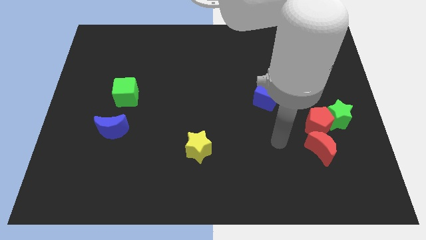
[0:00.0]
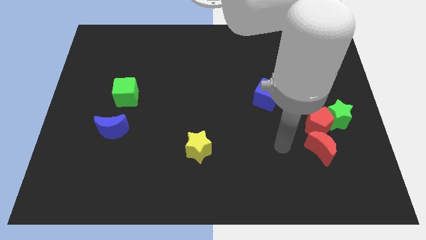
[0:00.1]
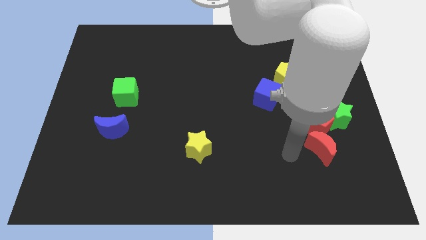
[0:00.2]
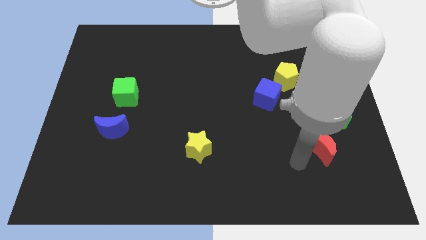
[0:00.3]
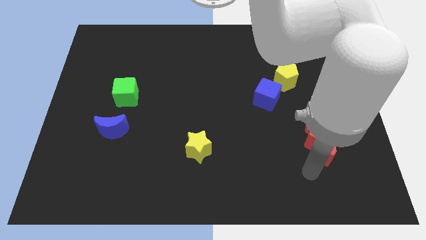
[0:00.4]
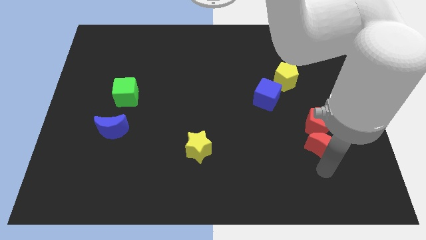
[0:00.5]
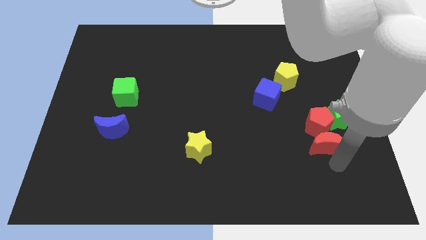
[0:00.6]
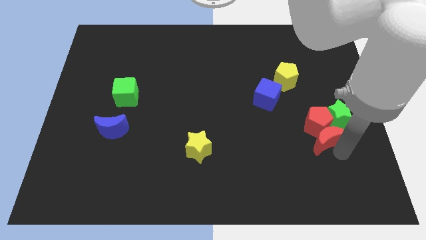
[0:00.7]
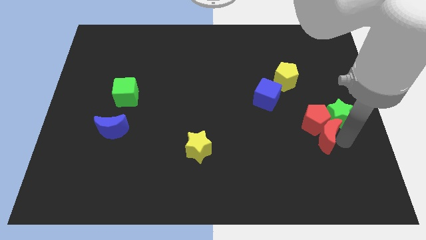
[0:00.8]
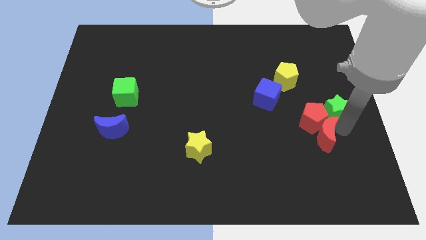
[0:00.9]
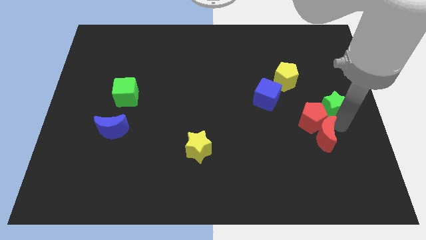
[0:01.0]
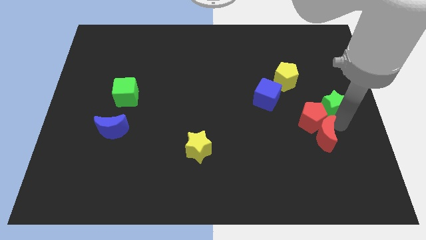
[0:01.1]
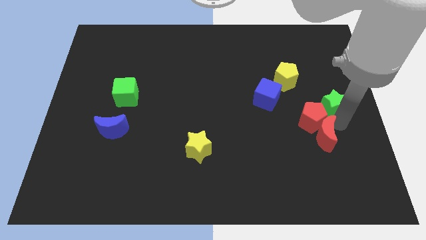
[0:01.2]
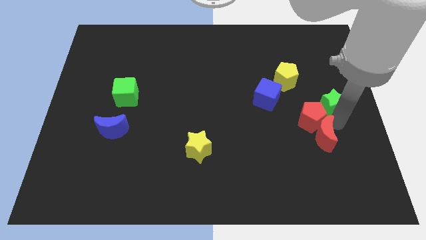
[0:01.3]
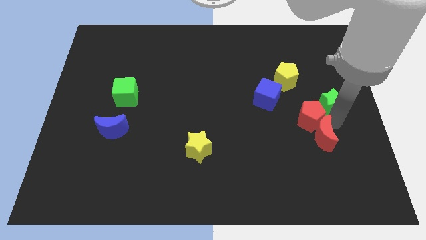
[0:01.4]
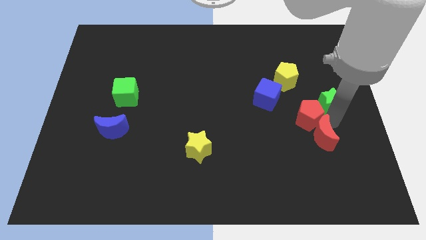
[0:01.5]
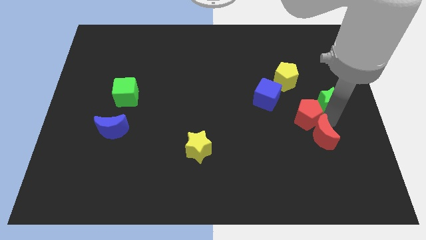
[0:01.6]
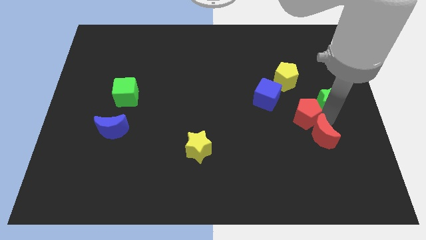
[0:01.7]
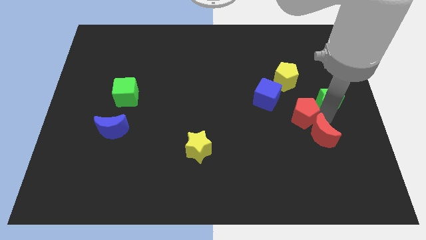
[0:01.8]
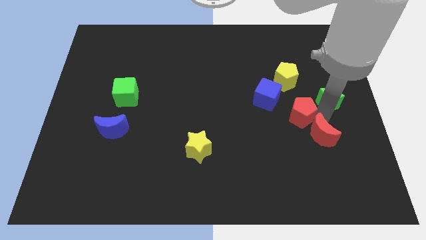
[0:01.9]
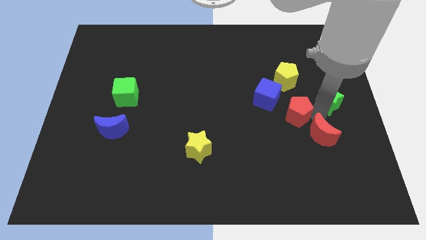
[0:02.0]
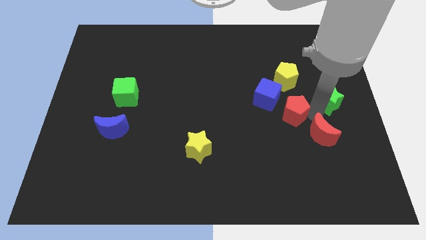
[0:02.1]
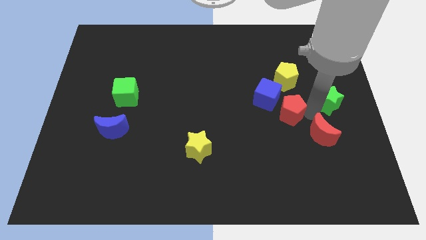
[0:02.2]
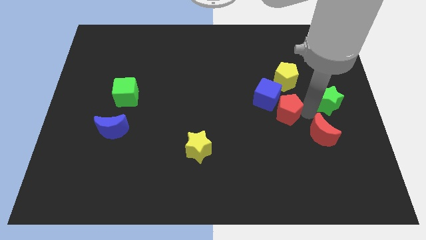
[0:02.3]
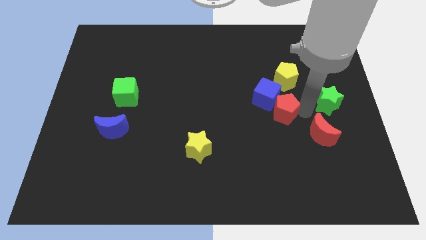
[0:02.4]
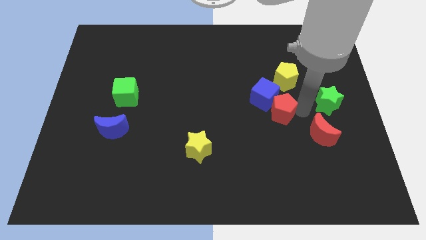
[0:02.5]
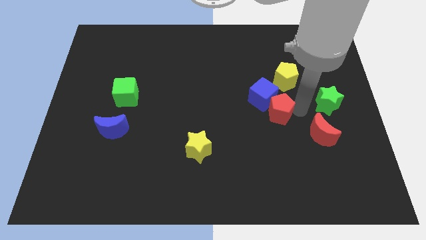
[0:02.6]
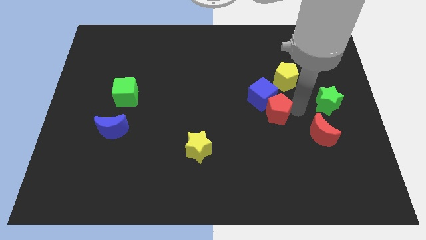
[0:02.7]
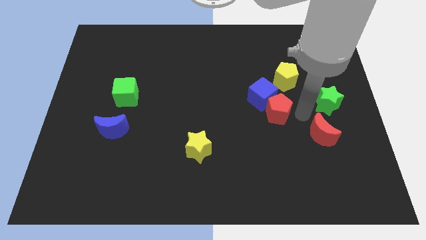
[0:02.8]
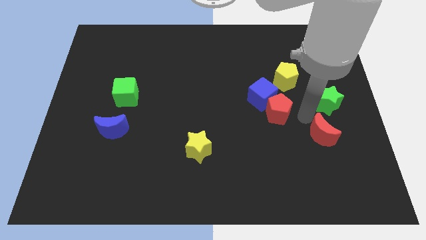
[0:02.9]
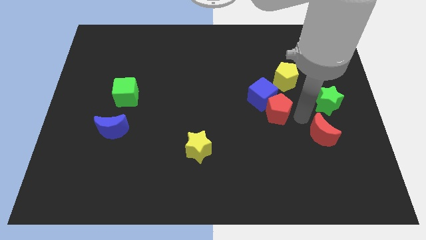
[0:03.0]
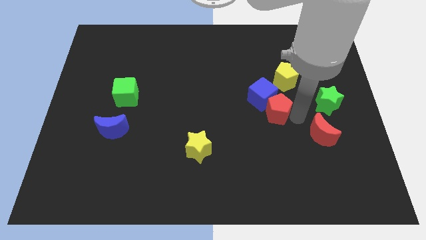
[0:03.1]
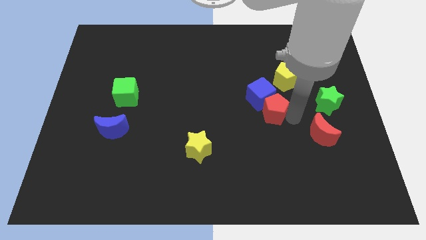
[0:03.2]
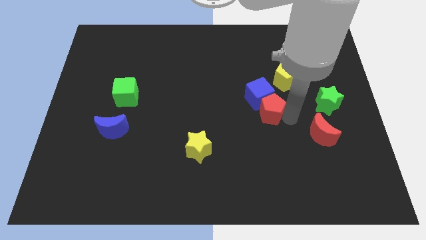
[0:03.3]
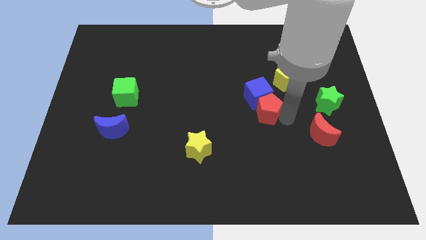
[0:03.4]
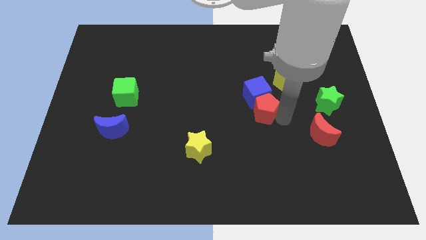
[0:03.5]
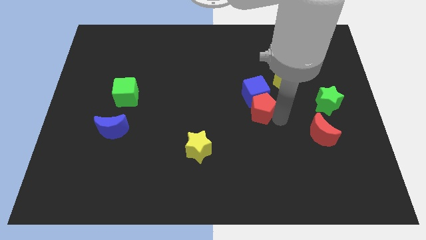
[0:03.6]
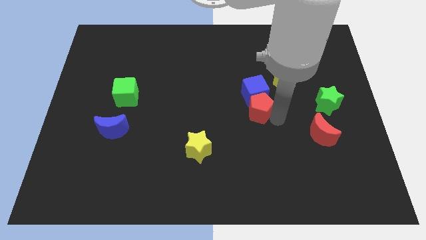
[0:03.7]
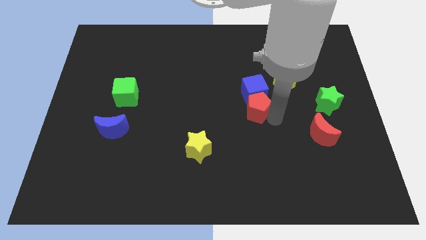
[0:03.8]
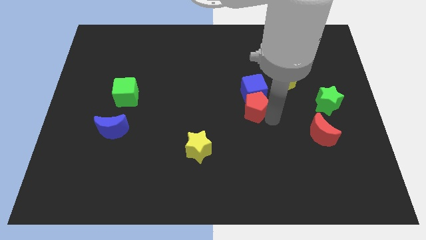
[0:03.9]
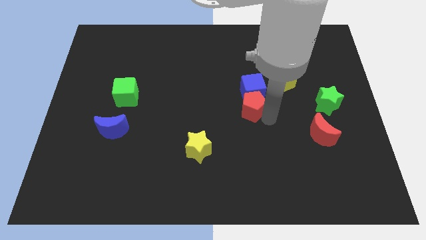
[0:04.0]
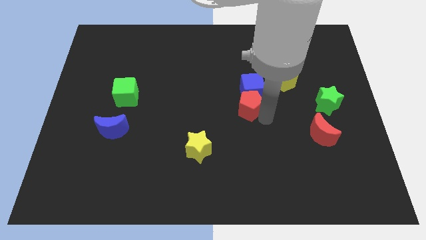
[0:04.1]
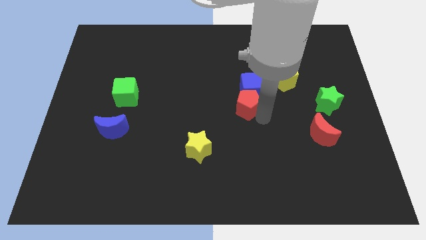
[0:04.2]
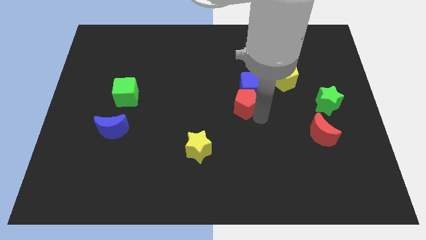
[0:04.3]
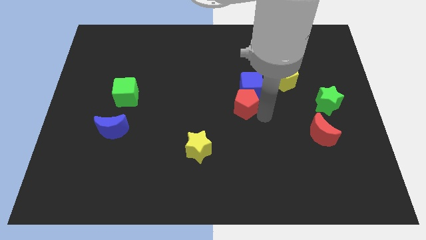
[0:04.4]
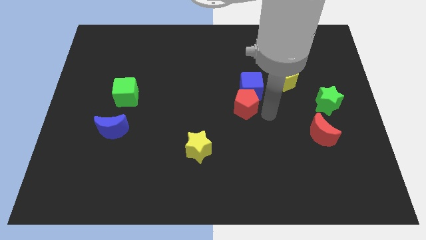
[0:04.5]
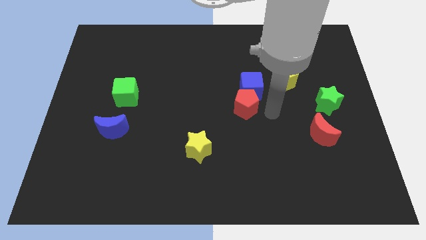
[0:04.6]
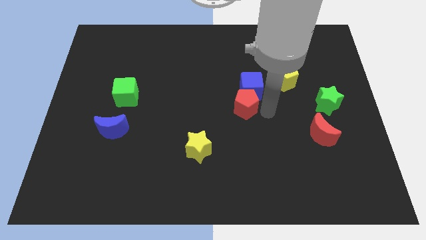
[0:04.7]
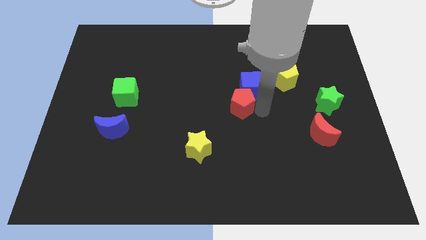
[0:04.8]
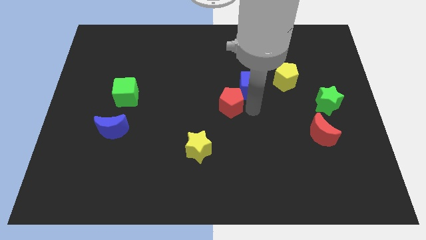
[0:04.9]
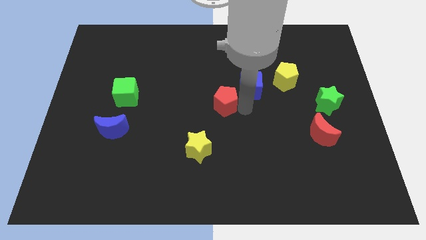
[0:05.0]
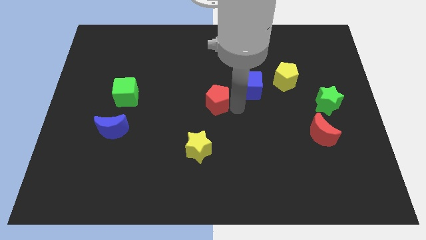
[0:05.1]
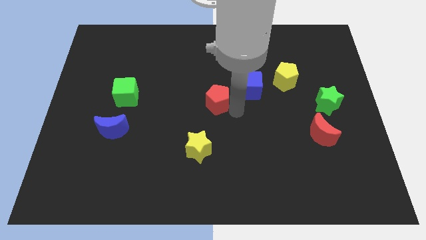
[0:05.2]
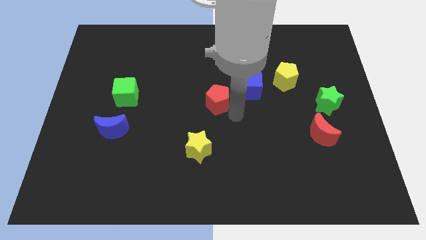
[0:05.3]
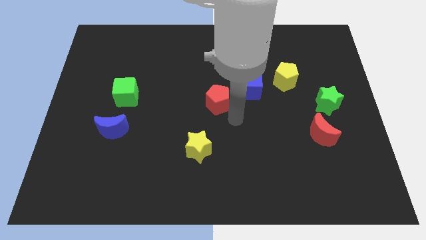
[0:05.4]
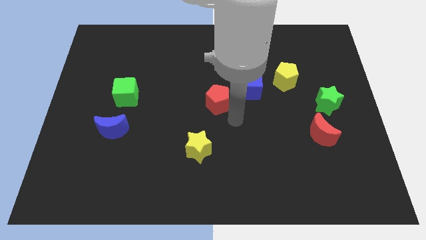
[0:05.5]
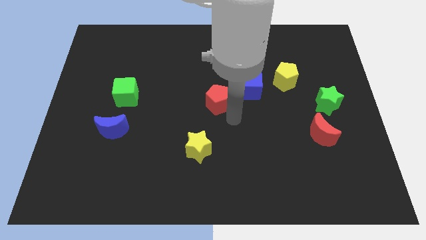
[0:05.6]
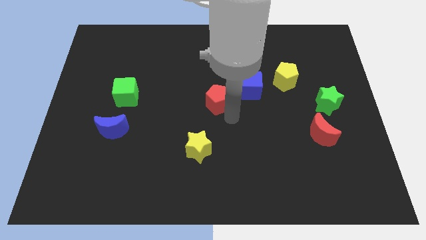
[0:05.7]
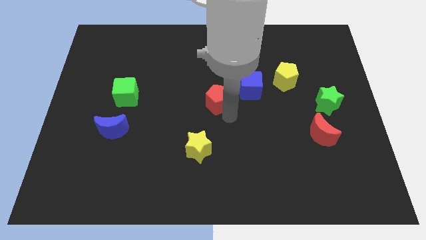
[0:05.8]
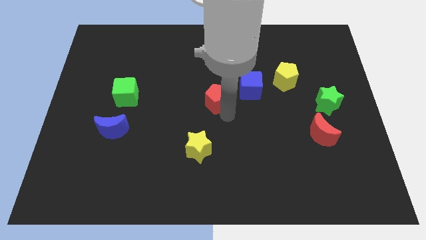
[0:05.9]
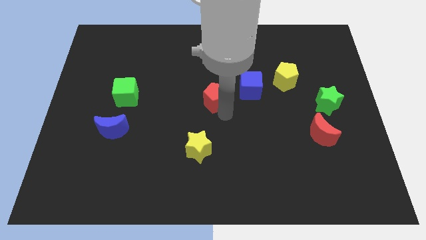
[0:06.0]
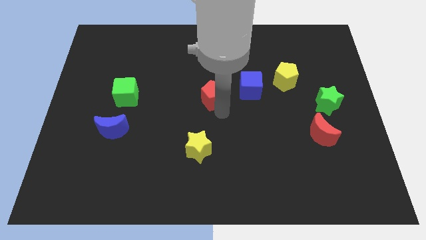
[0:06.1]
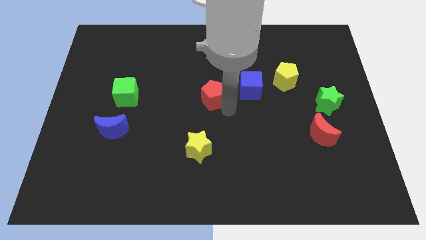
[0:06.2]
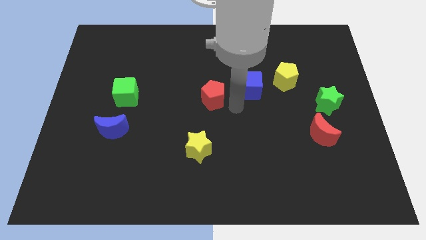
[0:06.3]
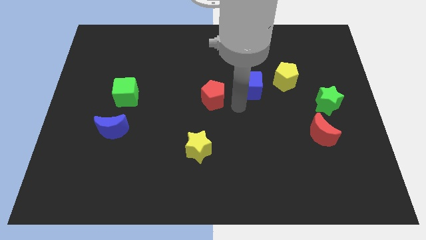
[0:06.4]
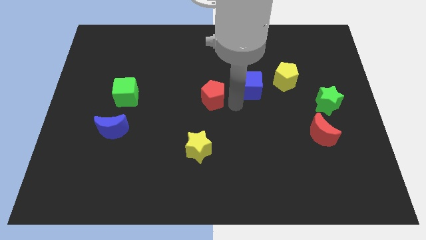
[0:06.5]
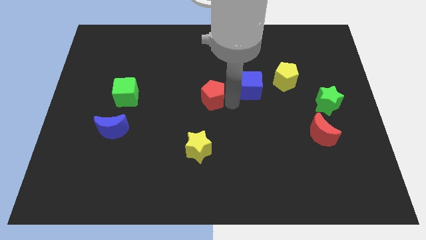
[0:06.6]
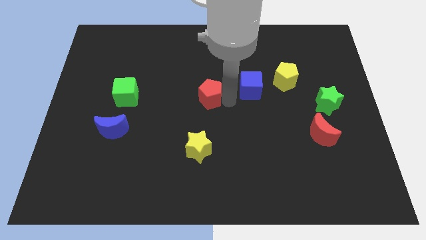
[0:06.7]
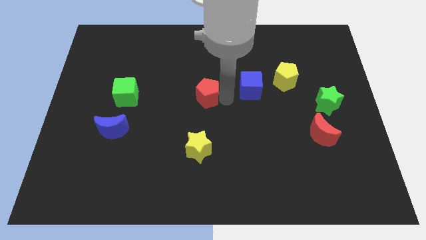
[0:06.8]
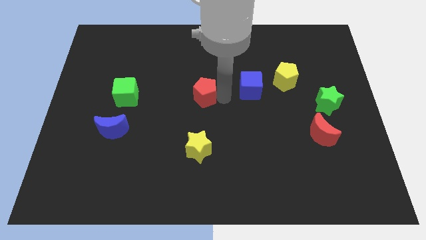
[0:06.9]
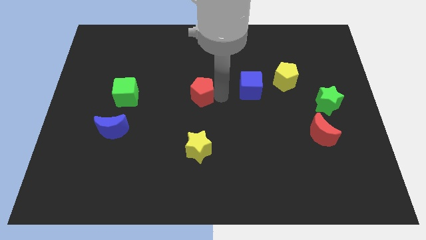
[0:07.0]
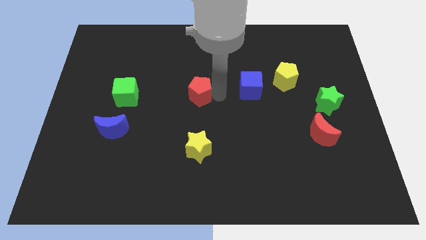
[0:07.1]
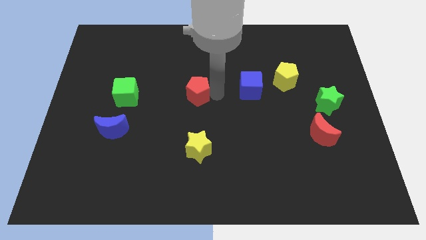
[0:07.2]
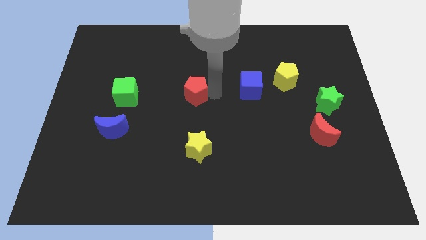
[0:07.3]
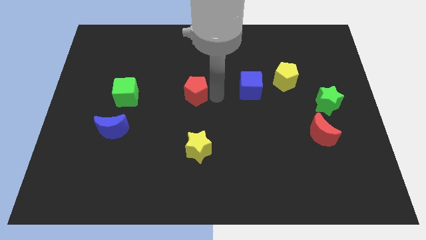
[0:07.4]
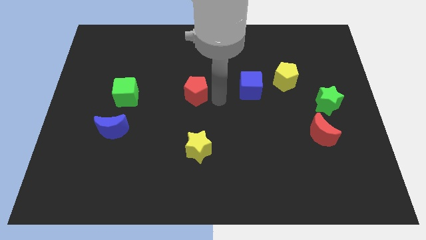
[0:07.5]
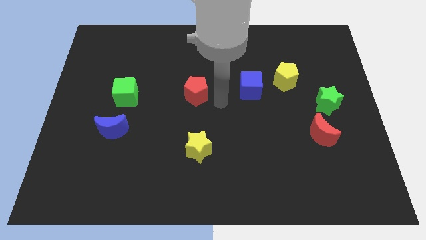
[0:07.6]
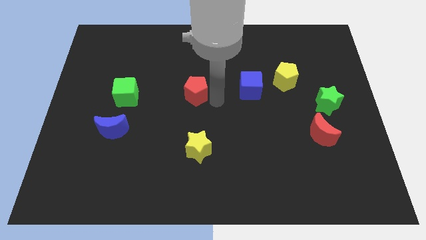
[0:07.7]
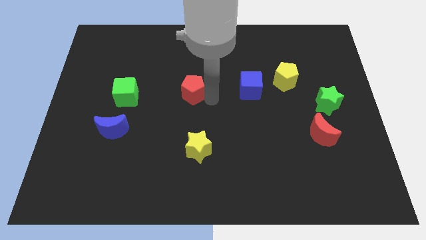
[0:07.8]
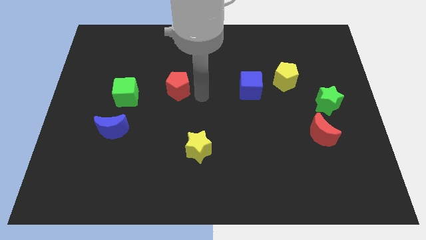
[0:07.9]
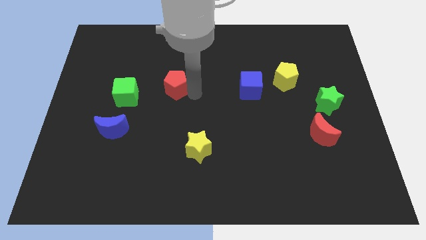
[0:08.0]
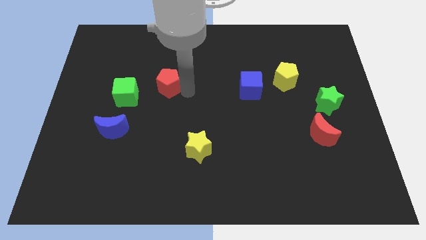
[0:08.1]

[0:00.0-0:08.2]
slide the red pentagon to the top right side of the green cube
